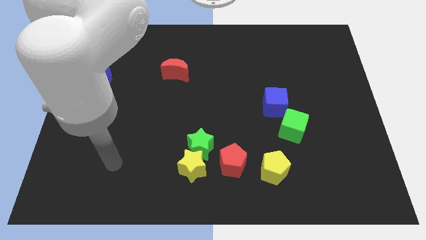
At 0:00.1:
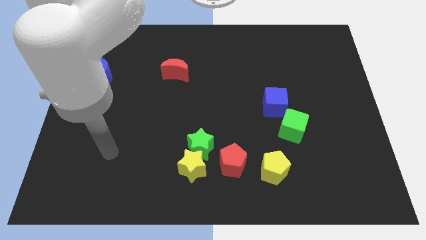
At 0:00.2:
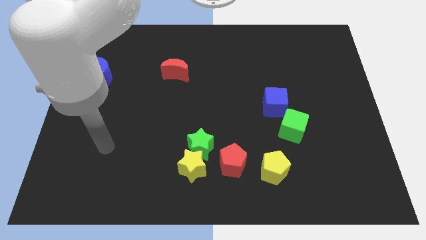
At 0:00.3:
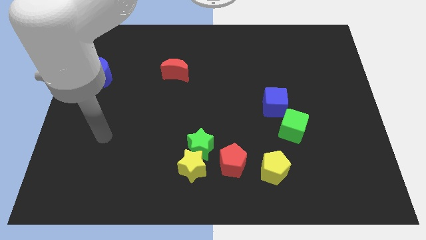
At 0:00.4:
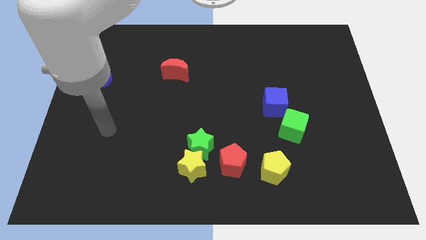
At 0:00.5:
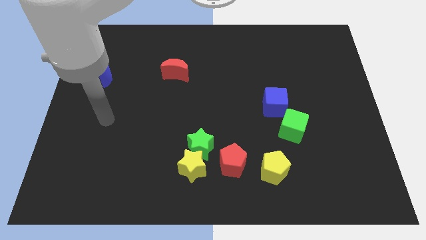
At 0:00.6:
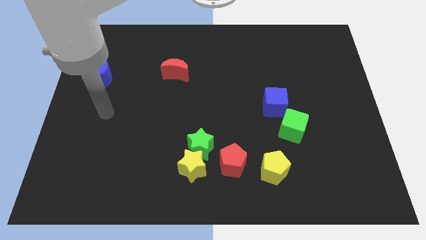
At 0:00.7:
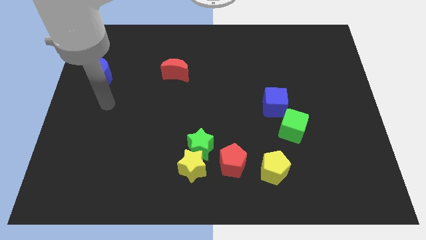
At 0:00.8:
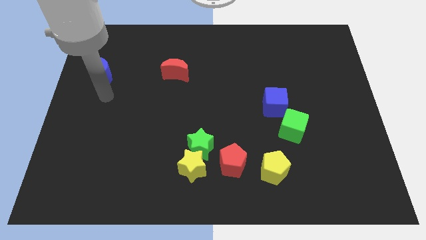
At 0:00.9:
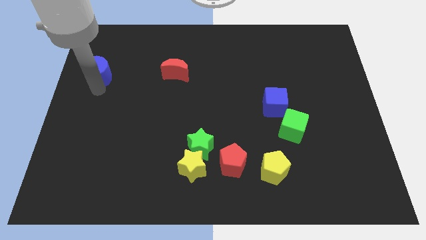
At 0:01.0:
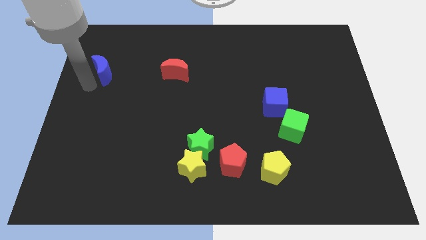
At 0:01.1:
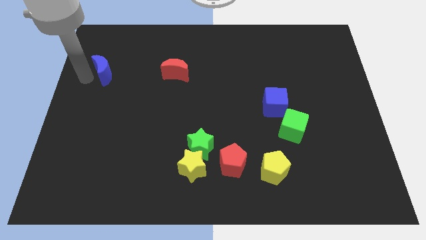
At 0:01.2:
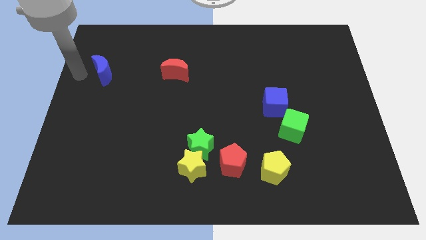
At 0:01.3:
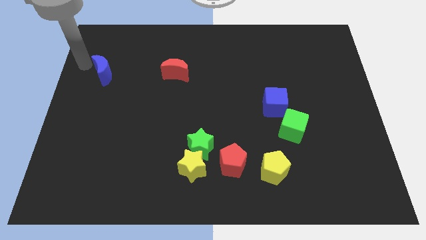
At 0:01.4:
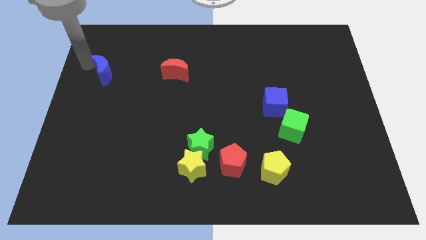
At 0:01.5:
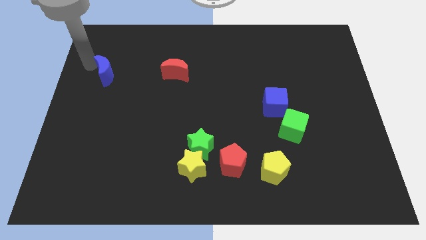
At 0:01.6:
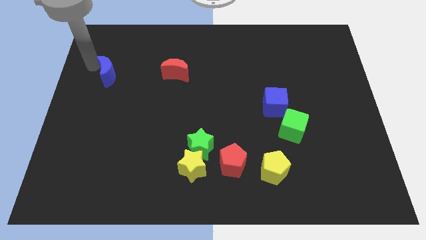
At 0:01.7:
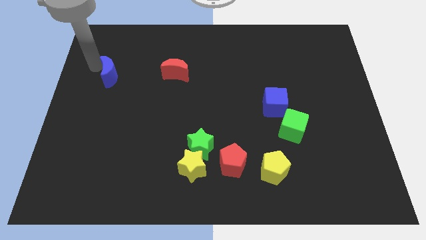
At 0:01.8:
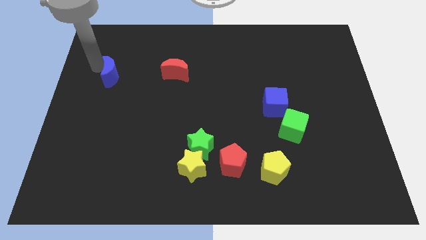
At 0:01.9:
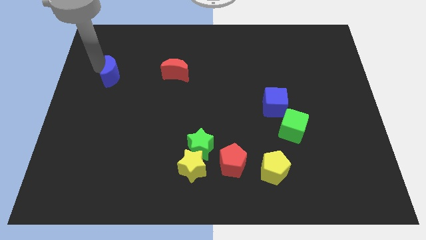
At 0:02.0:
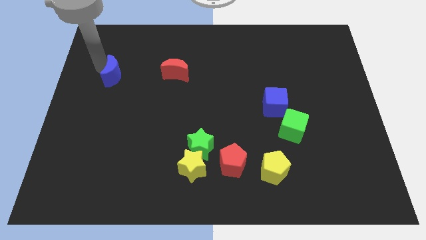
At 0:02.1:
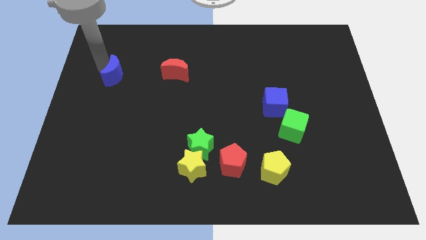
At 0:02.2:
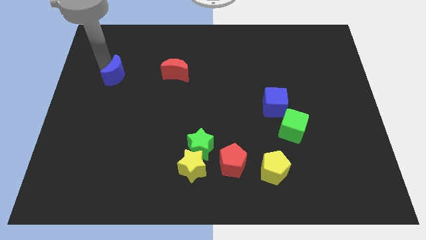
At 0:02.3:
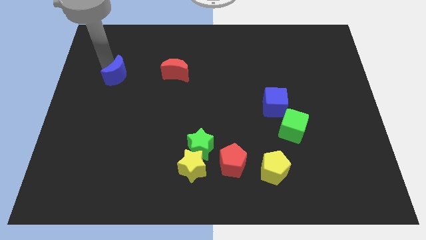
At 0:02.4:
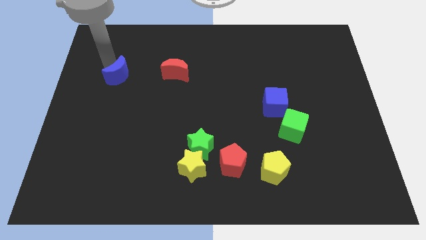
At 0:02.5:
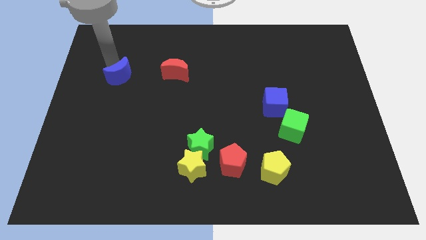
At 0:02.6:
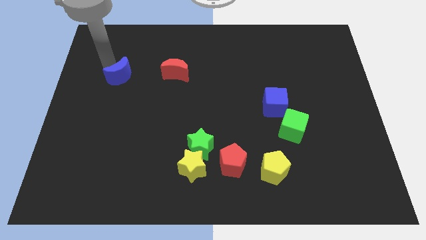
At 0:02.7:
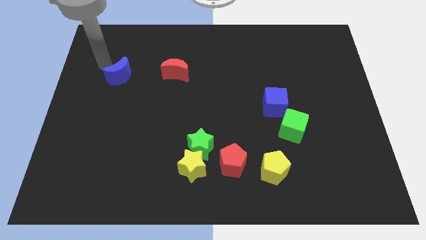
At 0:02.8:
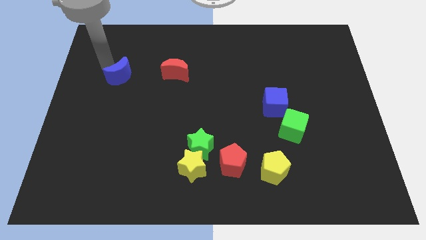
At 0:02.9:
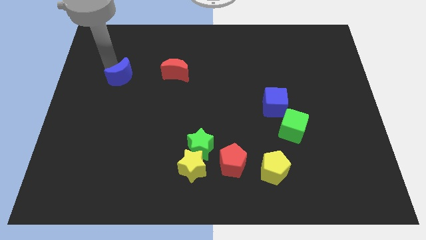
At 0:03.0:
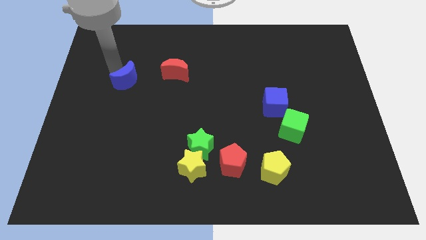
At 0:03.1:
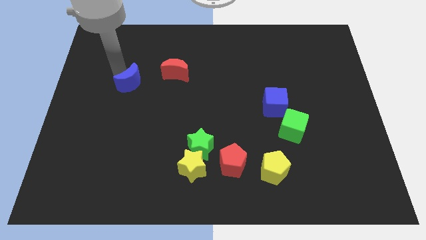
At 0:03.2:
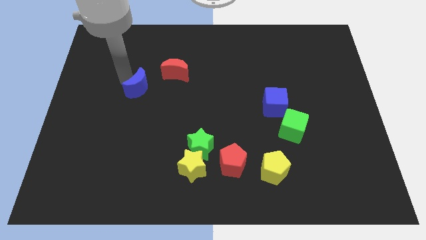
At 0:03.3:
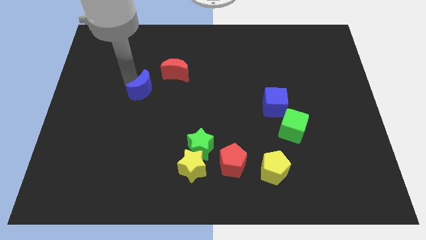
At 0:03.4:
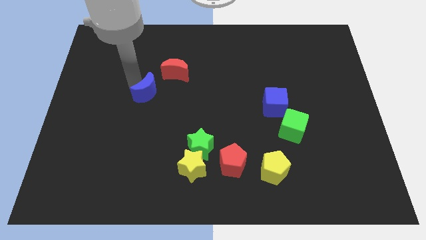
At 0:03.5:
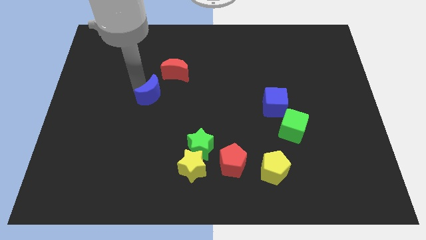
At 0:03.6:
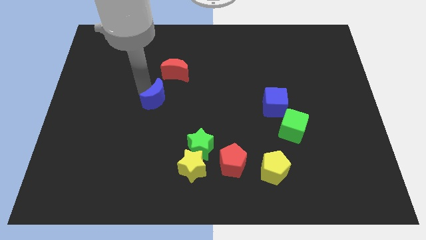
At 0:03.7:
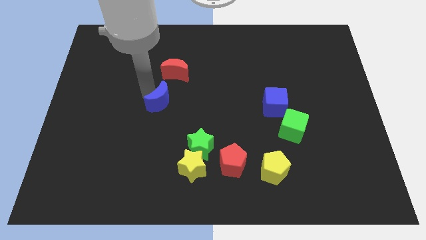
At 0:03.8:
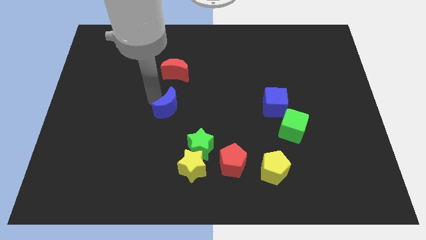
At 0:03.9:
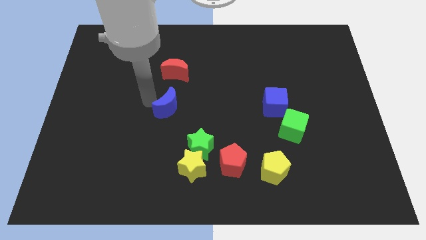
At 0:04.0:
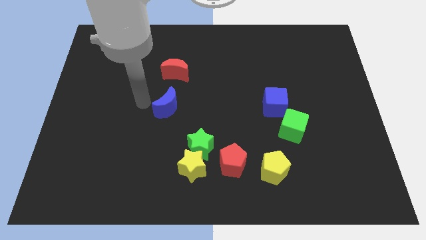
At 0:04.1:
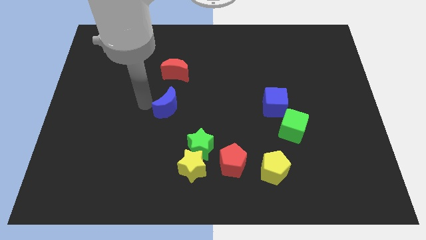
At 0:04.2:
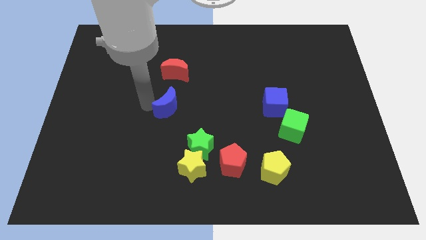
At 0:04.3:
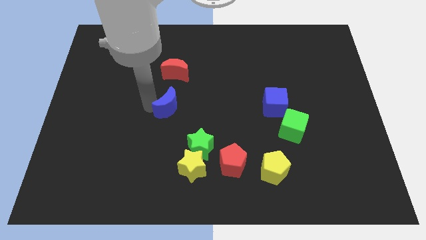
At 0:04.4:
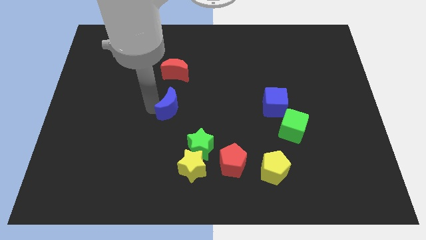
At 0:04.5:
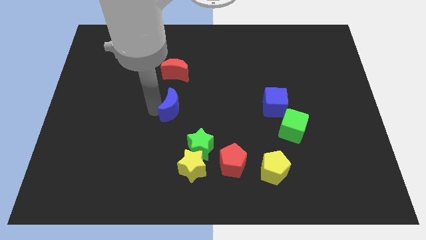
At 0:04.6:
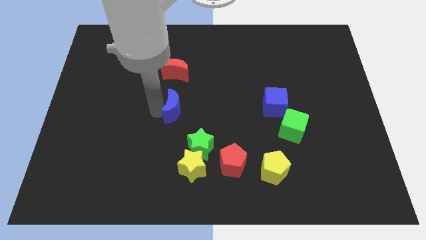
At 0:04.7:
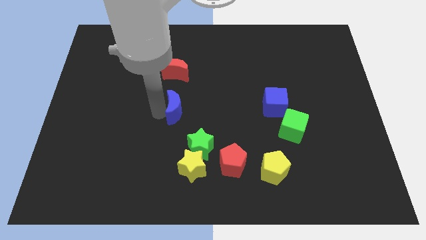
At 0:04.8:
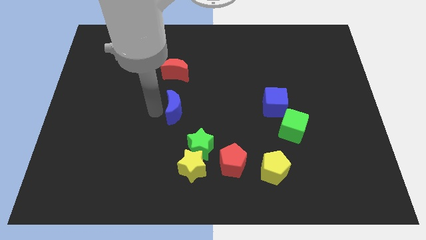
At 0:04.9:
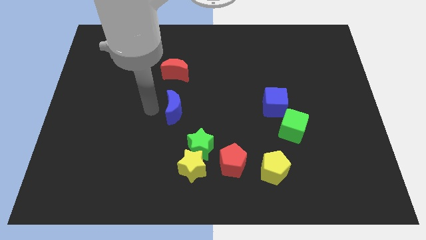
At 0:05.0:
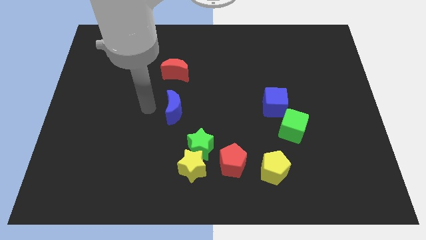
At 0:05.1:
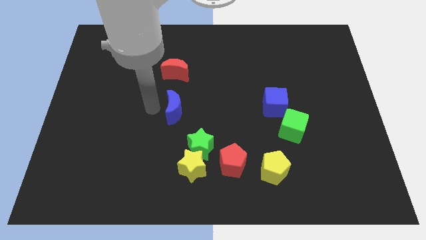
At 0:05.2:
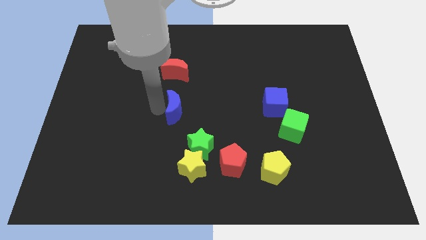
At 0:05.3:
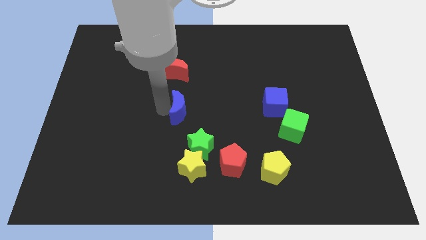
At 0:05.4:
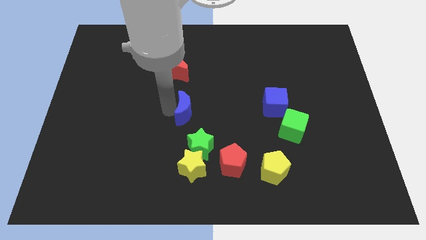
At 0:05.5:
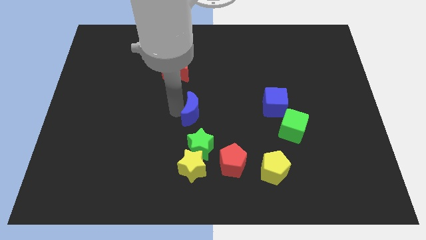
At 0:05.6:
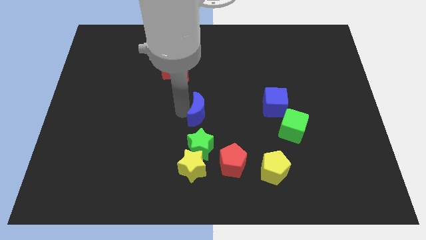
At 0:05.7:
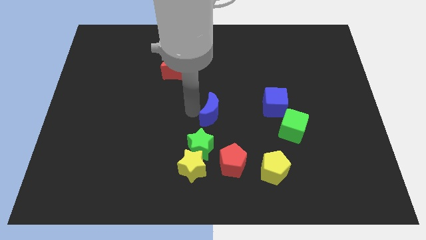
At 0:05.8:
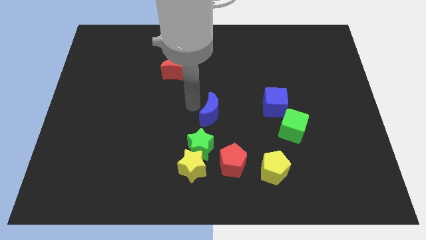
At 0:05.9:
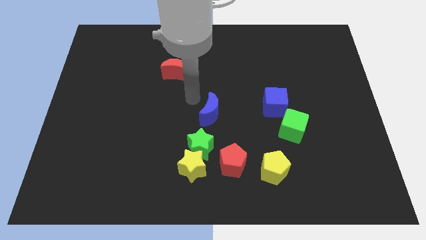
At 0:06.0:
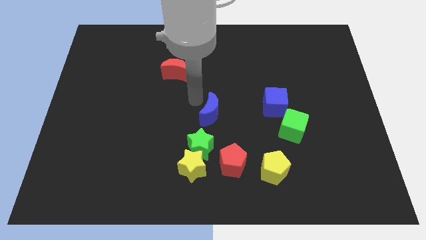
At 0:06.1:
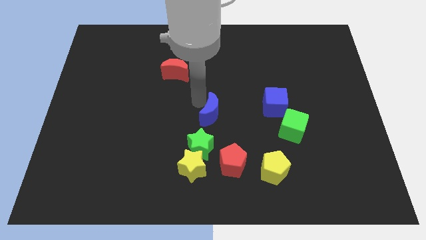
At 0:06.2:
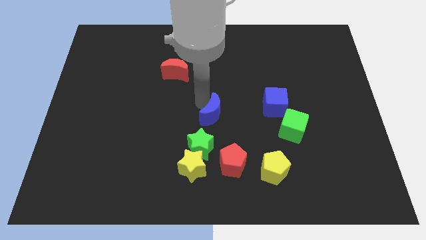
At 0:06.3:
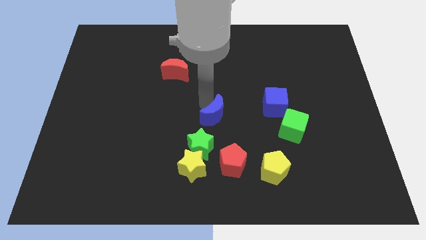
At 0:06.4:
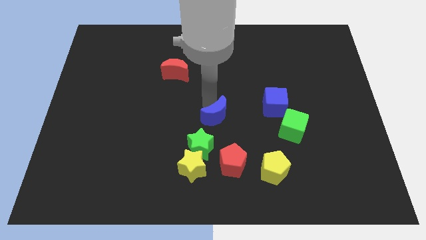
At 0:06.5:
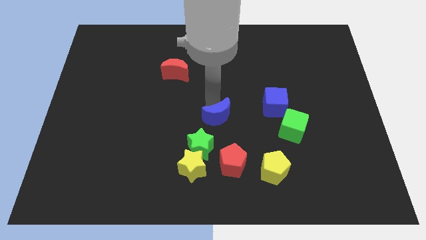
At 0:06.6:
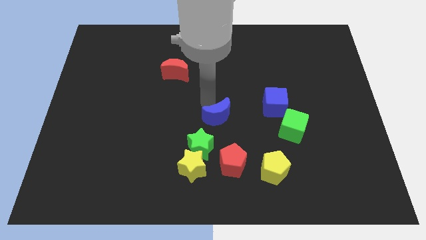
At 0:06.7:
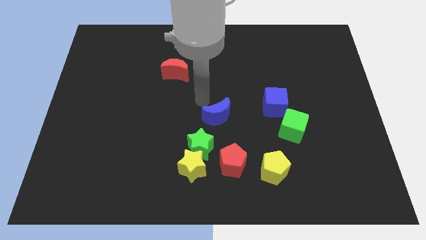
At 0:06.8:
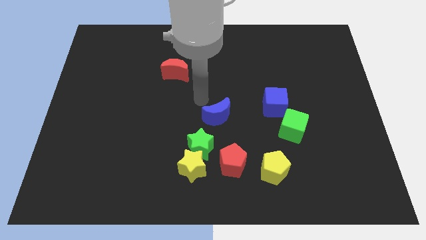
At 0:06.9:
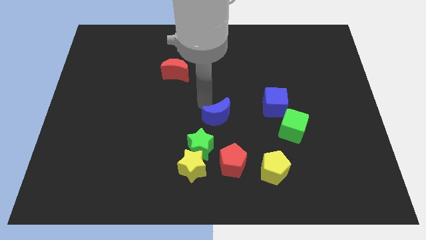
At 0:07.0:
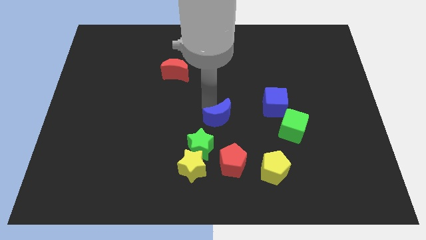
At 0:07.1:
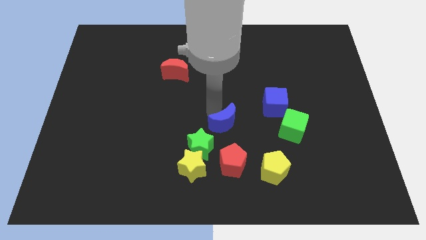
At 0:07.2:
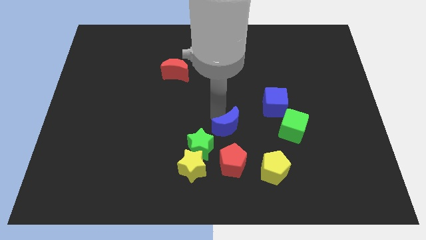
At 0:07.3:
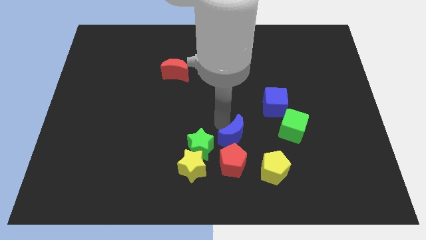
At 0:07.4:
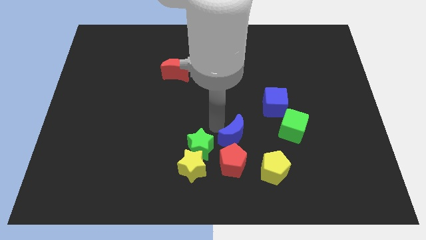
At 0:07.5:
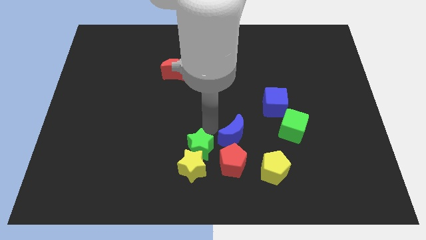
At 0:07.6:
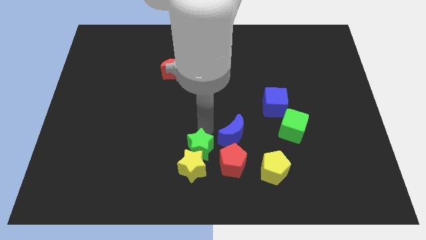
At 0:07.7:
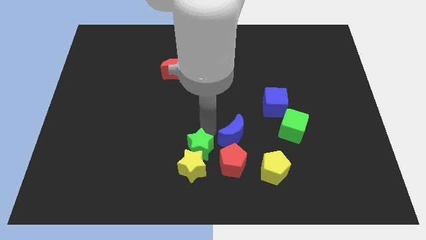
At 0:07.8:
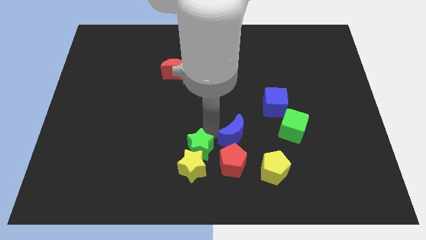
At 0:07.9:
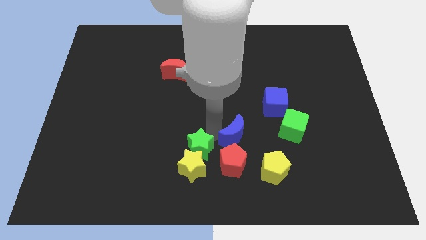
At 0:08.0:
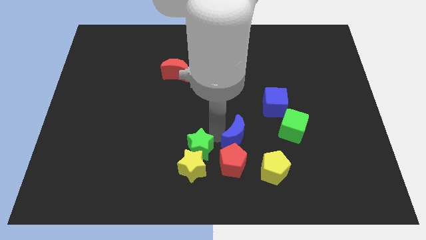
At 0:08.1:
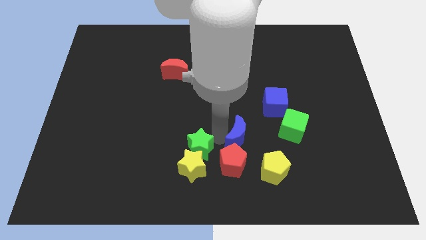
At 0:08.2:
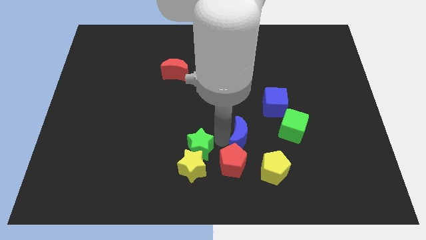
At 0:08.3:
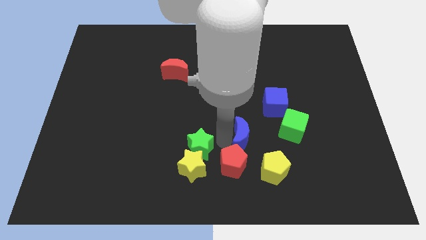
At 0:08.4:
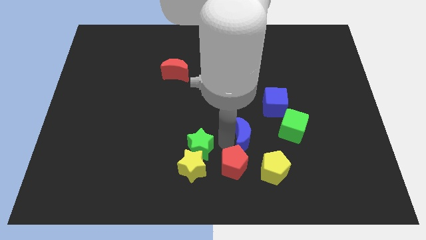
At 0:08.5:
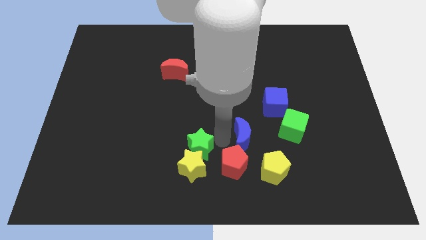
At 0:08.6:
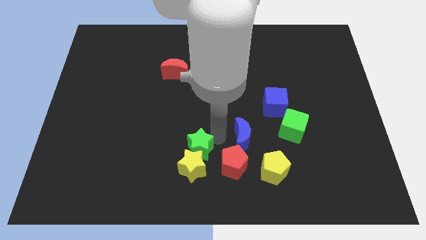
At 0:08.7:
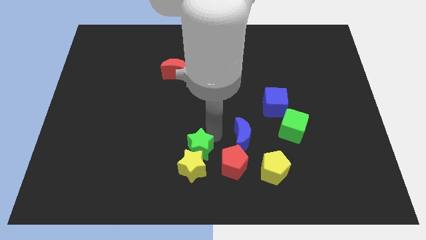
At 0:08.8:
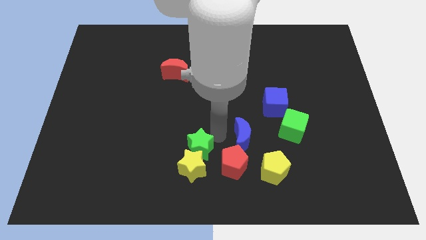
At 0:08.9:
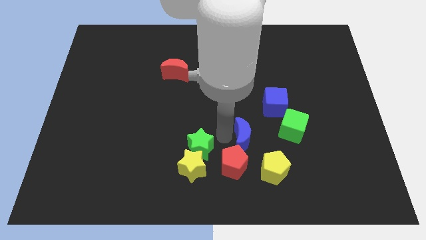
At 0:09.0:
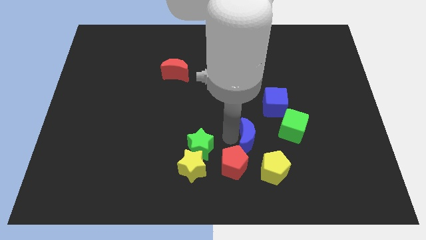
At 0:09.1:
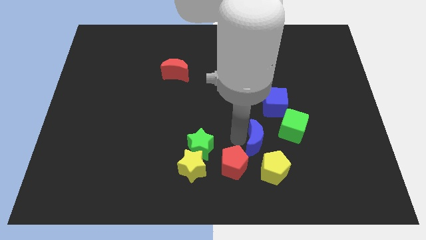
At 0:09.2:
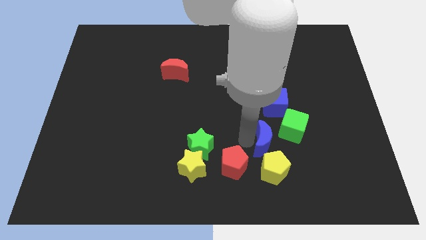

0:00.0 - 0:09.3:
put the blue moon to the bottom side of the blue cube
